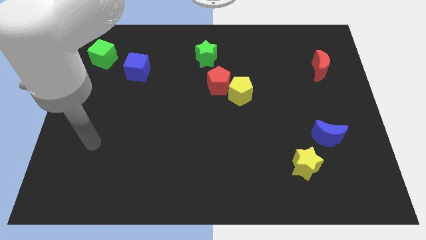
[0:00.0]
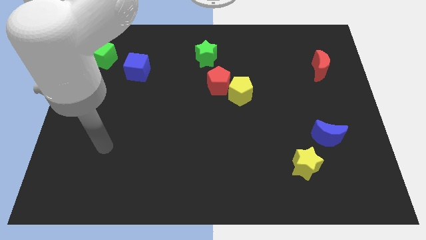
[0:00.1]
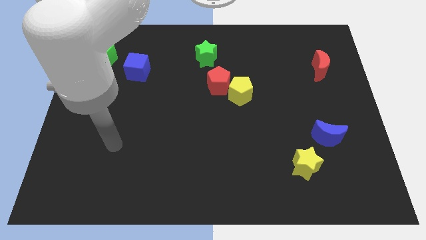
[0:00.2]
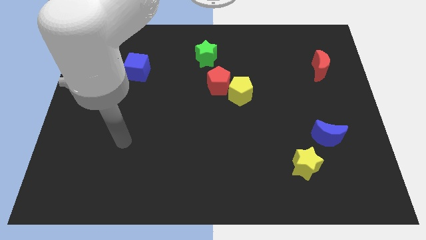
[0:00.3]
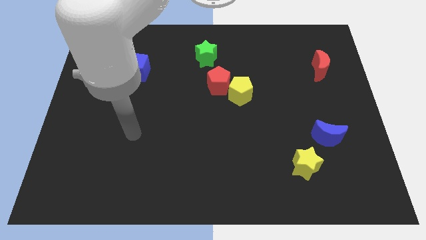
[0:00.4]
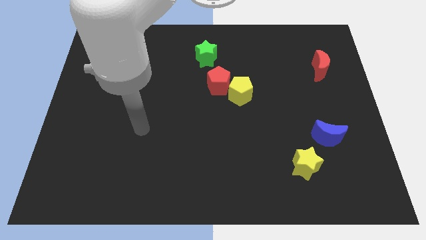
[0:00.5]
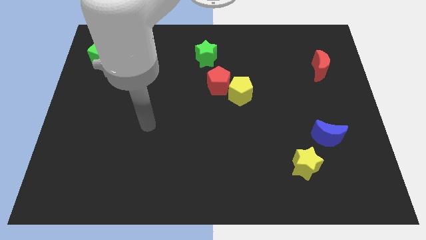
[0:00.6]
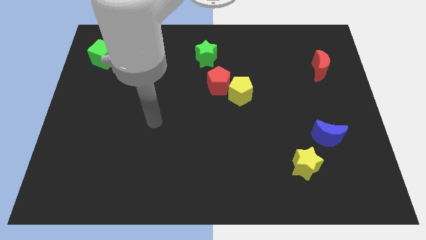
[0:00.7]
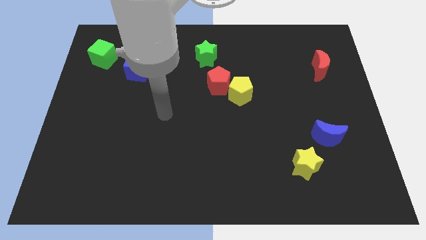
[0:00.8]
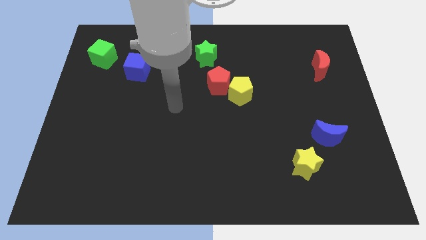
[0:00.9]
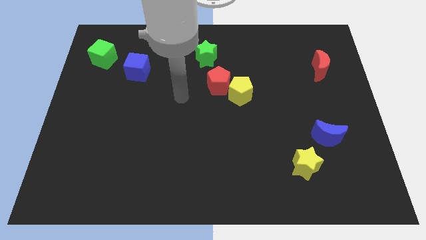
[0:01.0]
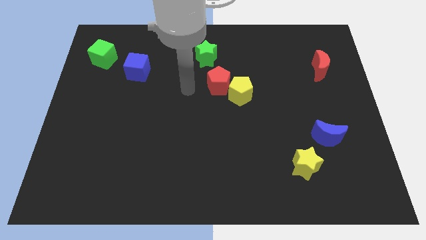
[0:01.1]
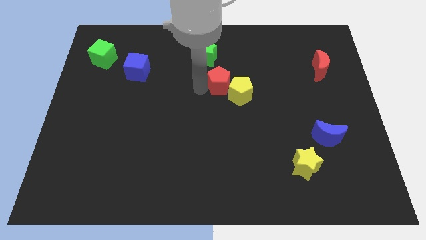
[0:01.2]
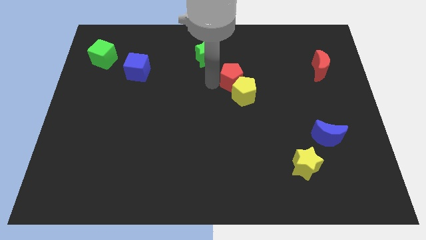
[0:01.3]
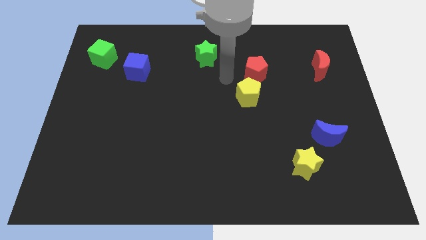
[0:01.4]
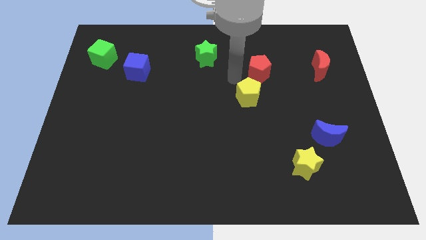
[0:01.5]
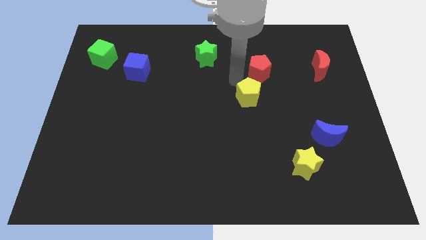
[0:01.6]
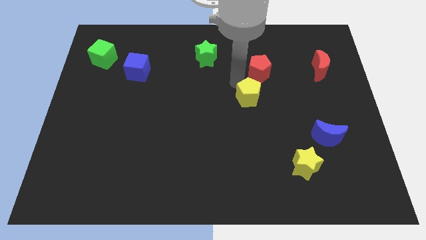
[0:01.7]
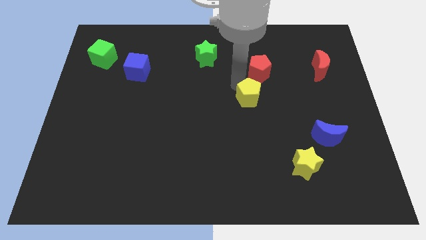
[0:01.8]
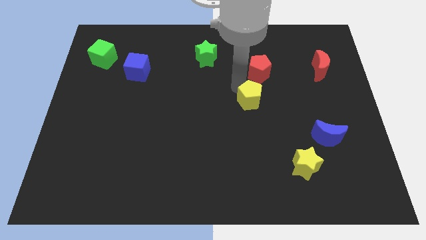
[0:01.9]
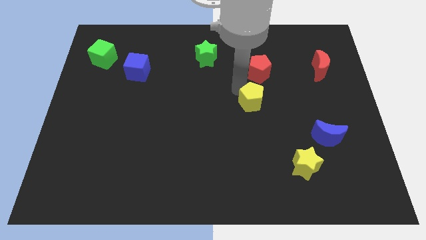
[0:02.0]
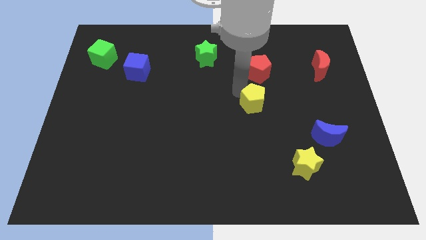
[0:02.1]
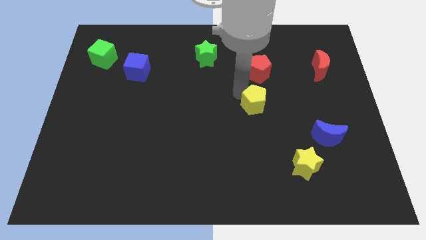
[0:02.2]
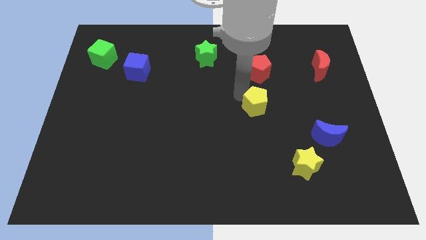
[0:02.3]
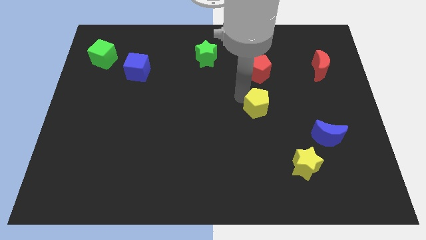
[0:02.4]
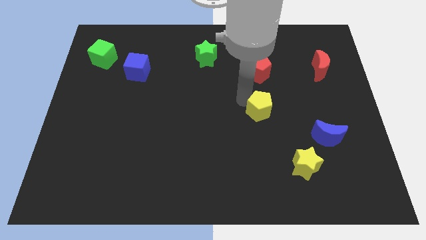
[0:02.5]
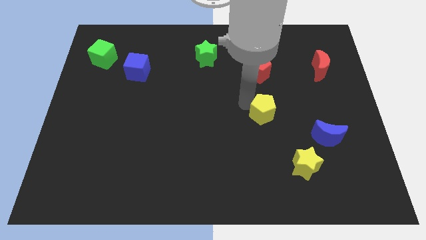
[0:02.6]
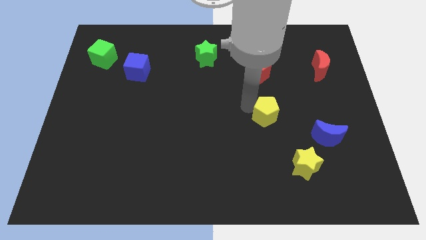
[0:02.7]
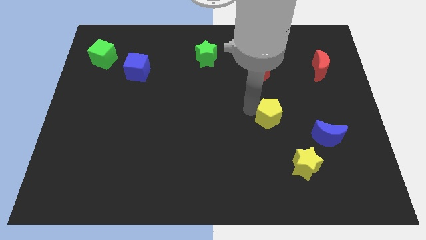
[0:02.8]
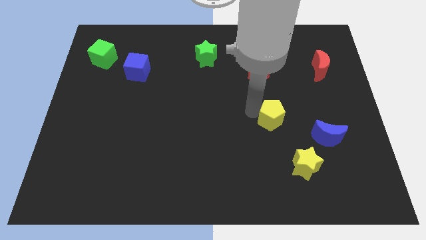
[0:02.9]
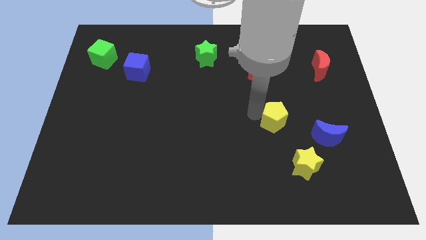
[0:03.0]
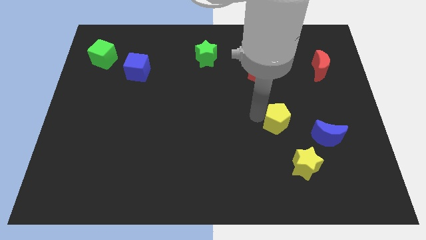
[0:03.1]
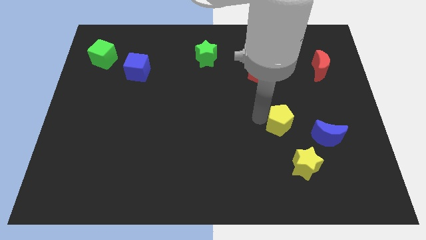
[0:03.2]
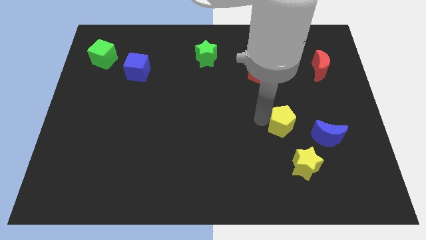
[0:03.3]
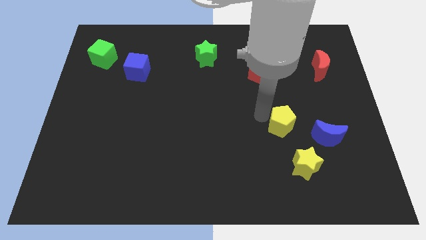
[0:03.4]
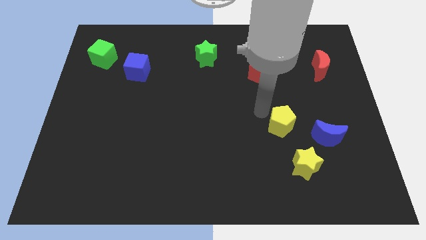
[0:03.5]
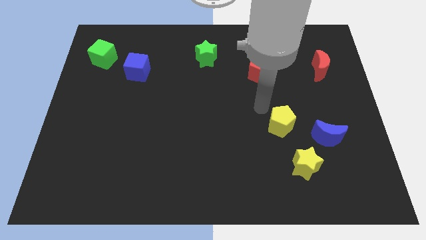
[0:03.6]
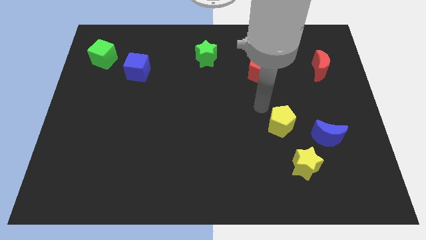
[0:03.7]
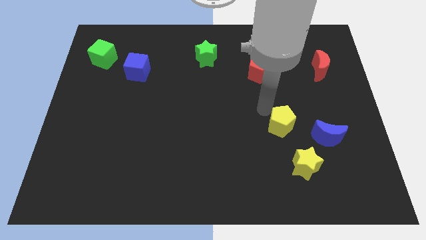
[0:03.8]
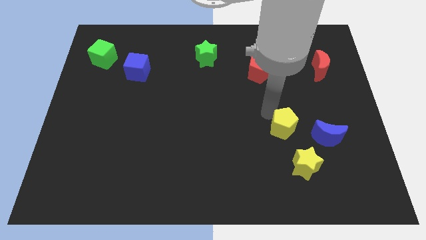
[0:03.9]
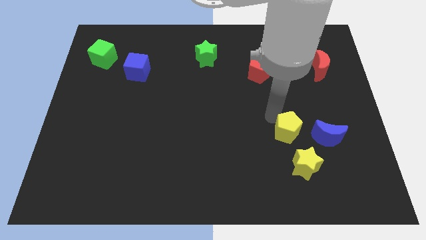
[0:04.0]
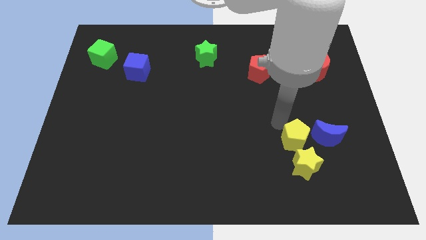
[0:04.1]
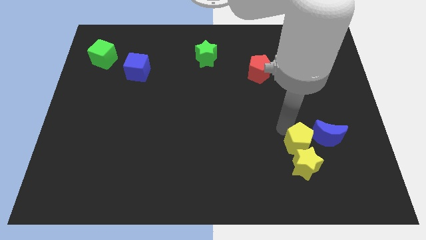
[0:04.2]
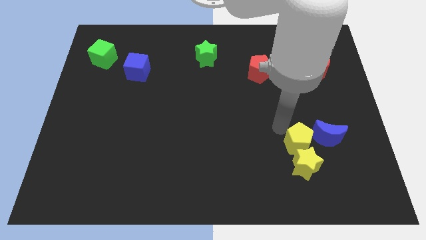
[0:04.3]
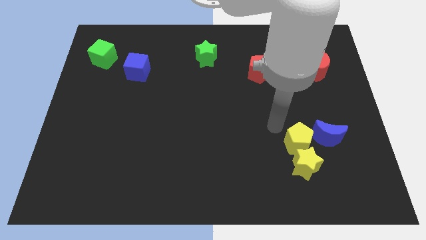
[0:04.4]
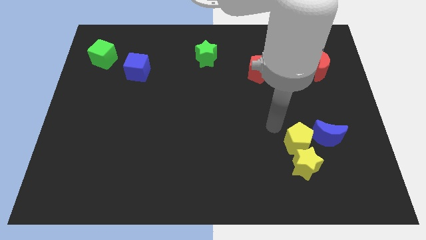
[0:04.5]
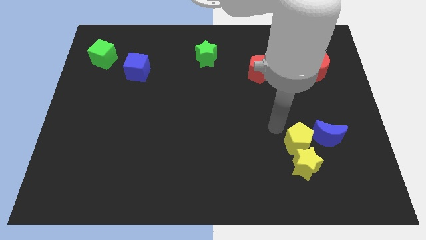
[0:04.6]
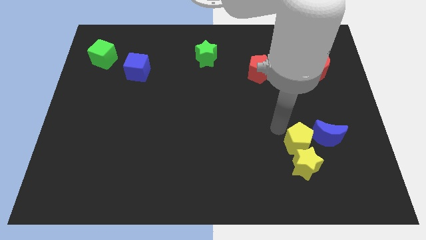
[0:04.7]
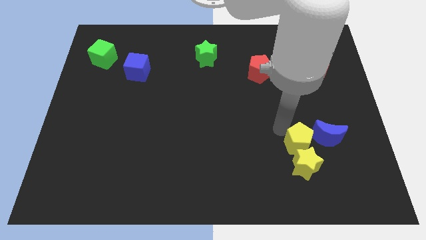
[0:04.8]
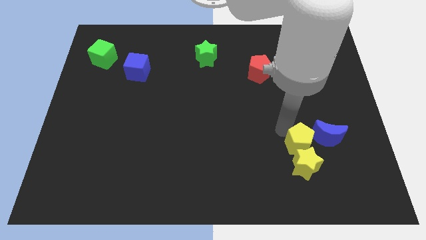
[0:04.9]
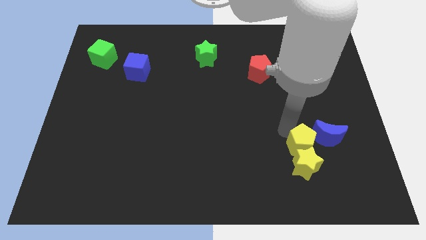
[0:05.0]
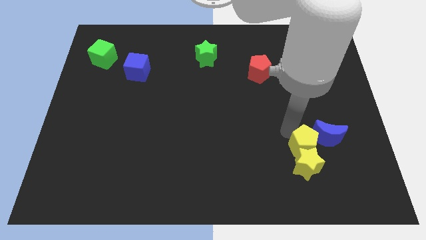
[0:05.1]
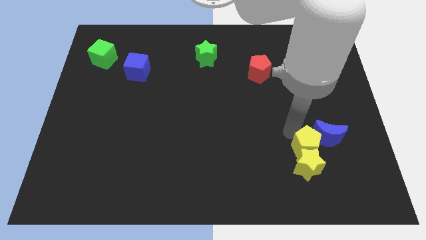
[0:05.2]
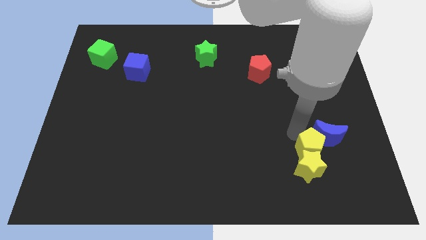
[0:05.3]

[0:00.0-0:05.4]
move the yellow pentagon below the blue moon

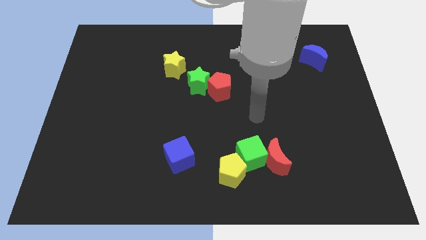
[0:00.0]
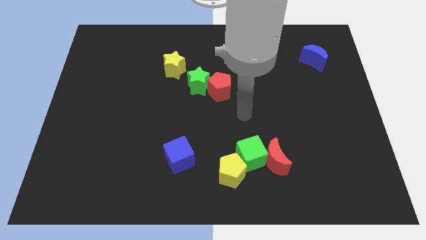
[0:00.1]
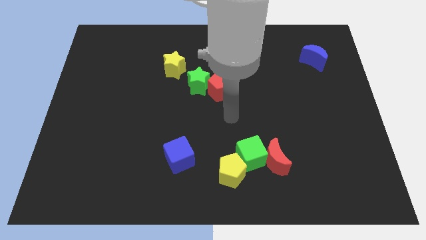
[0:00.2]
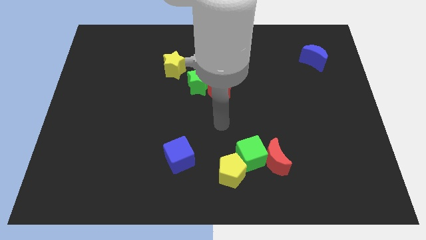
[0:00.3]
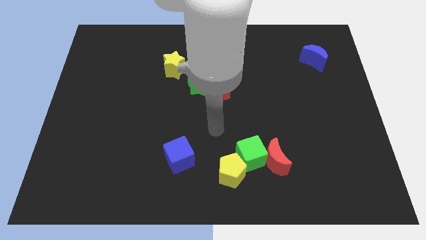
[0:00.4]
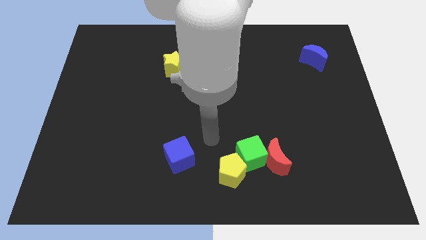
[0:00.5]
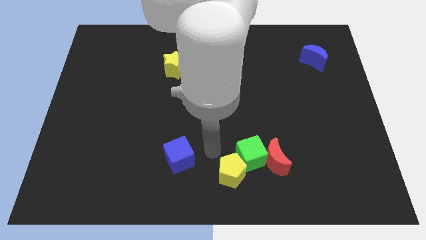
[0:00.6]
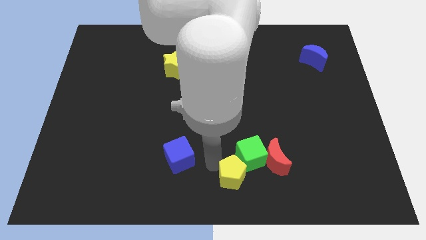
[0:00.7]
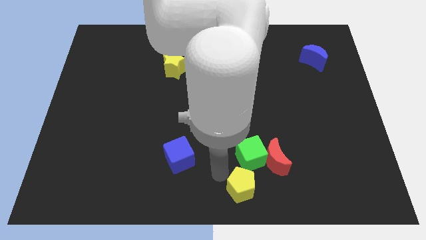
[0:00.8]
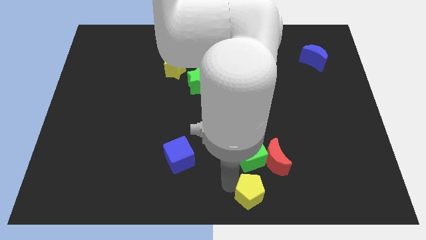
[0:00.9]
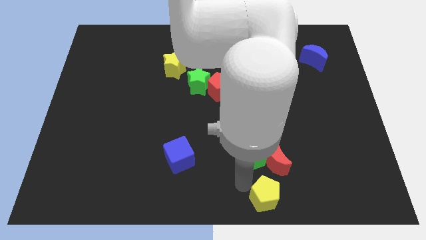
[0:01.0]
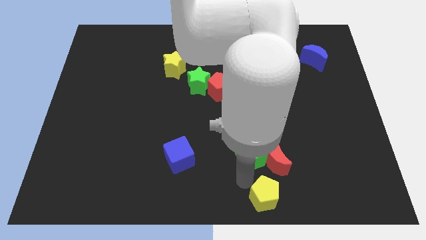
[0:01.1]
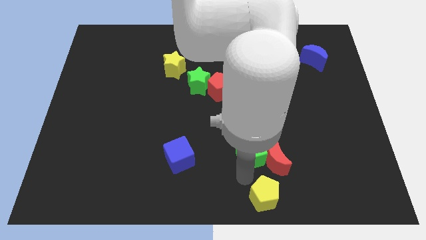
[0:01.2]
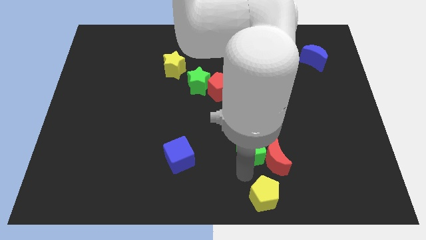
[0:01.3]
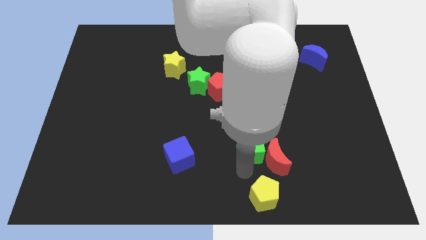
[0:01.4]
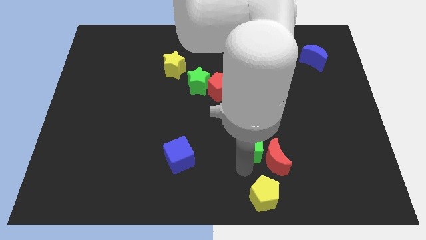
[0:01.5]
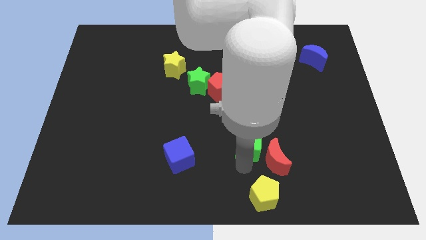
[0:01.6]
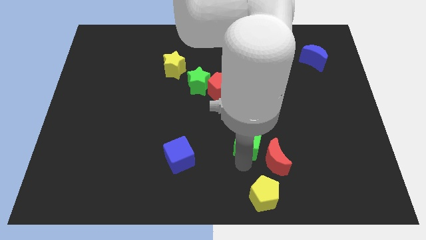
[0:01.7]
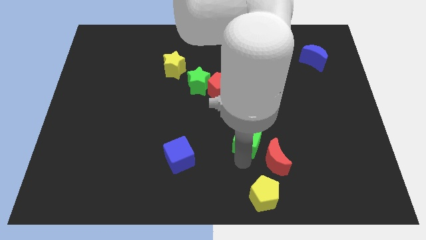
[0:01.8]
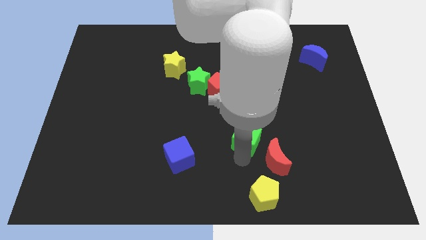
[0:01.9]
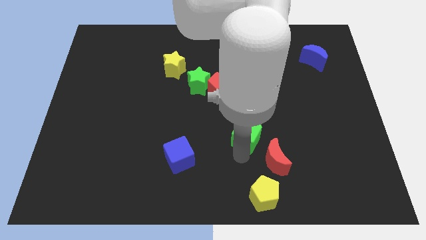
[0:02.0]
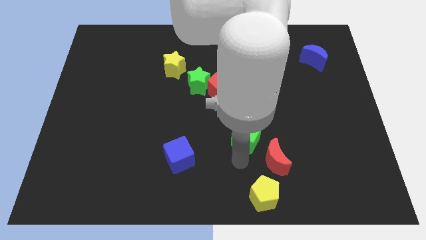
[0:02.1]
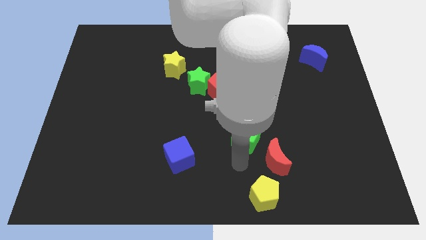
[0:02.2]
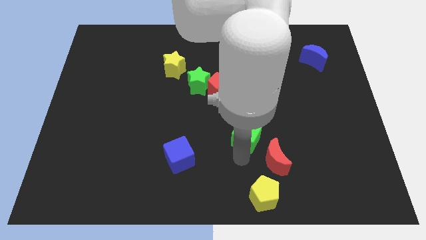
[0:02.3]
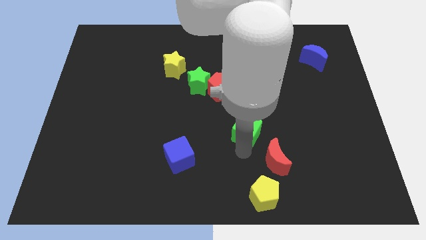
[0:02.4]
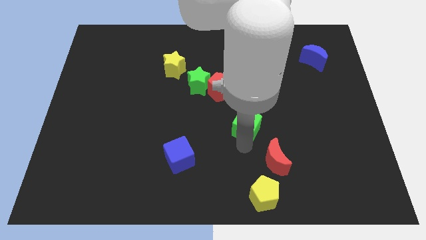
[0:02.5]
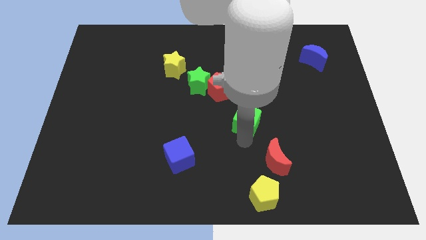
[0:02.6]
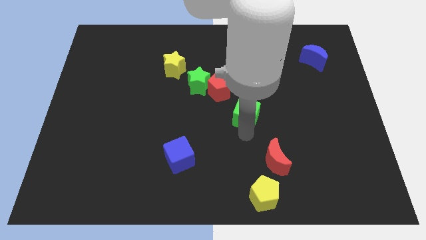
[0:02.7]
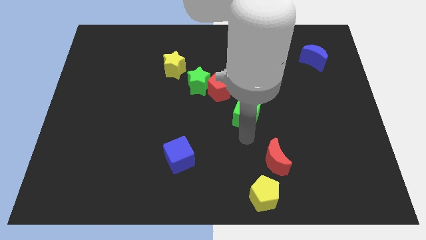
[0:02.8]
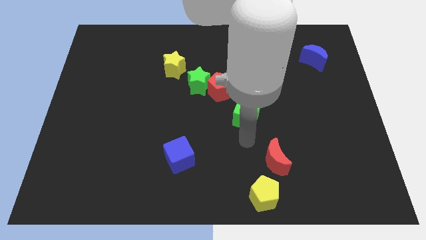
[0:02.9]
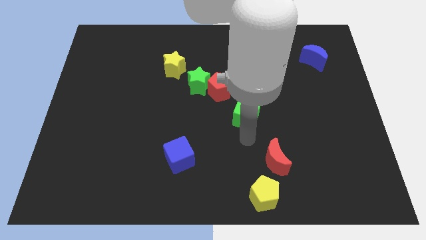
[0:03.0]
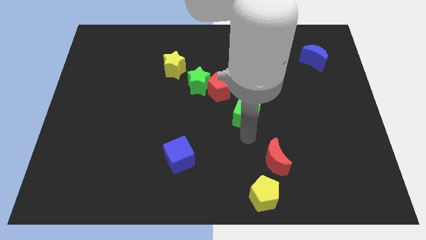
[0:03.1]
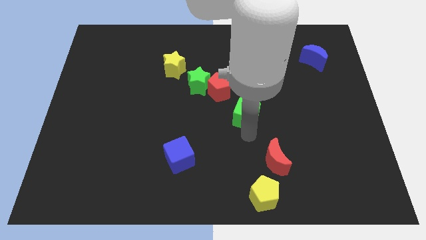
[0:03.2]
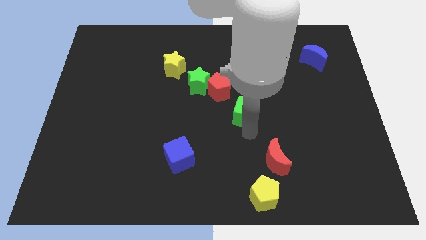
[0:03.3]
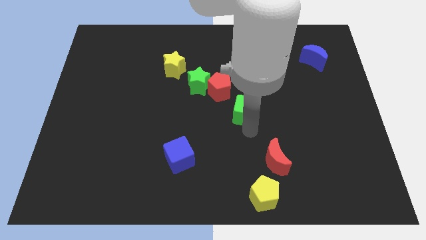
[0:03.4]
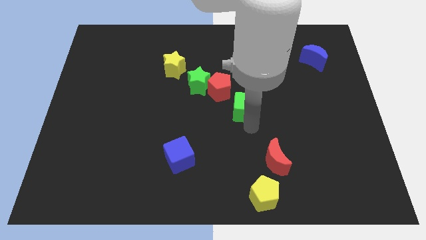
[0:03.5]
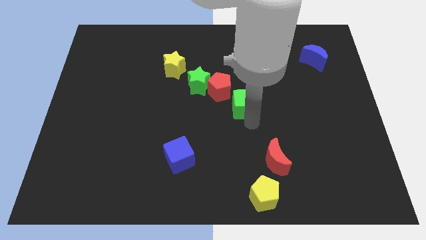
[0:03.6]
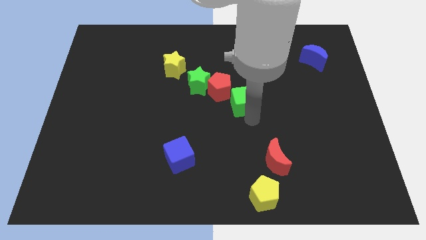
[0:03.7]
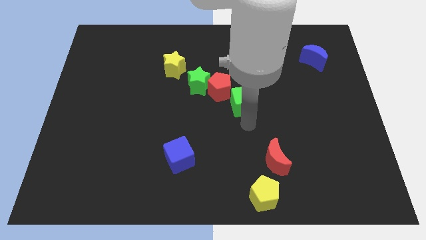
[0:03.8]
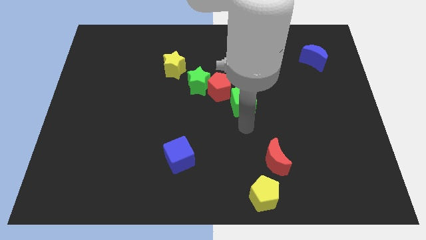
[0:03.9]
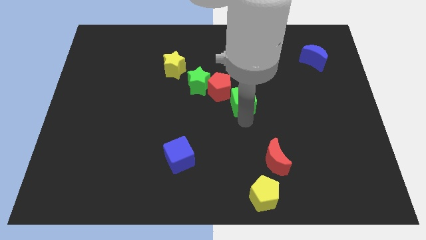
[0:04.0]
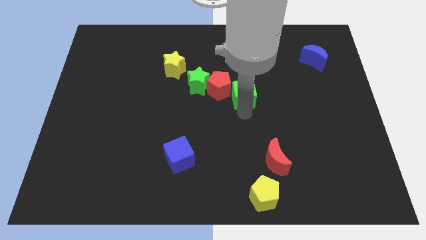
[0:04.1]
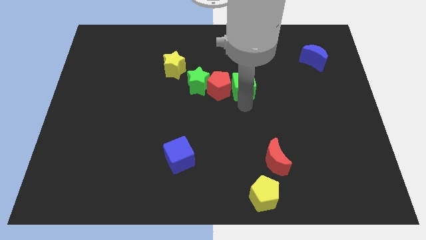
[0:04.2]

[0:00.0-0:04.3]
push the green cube to the top right of the red pentagon
